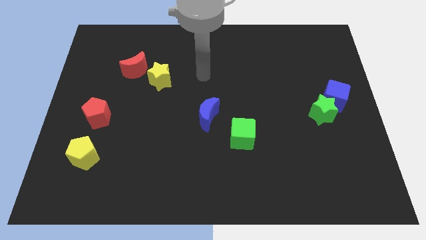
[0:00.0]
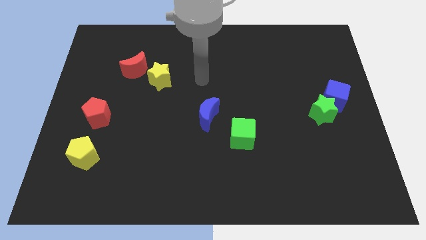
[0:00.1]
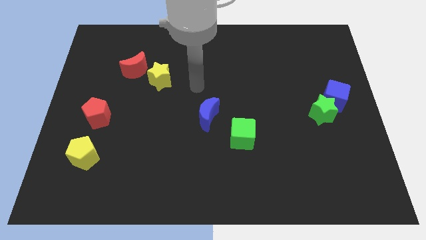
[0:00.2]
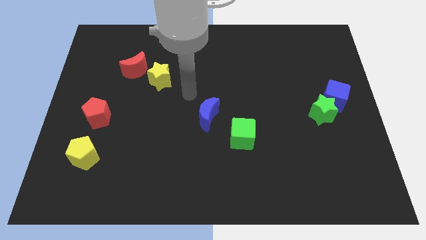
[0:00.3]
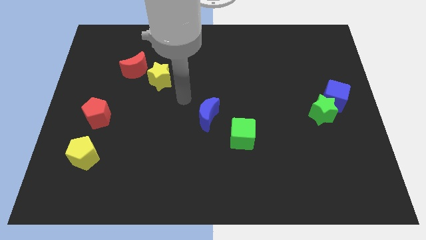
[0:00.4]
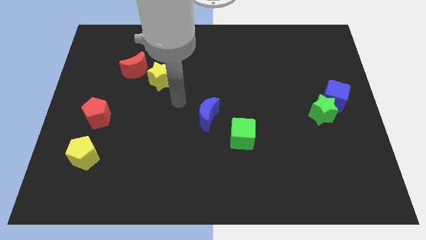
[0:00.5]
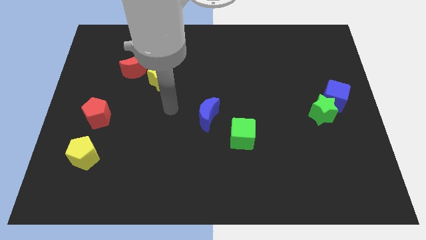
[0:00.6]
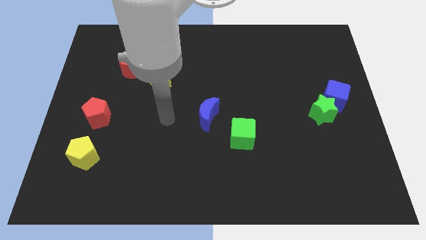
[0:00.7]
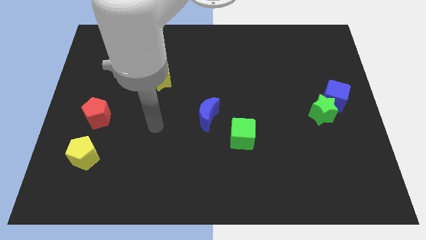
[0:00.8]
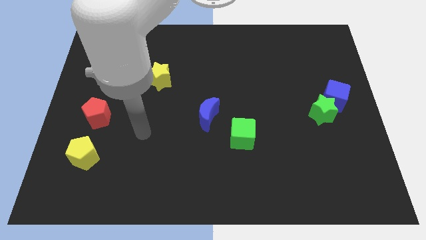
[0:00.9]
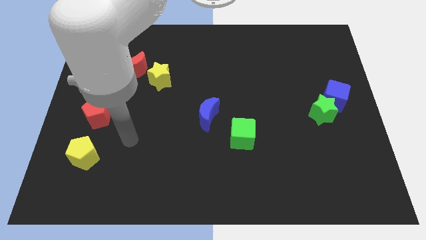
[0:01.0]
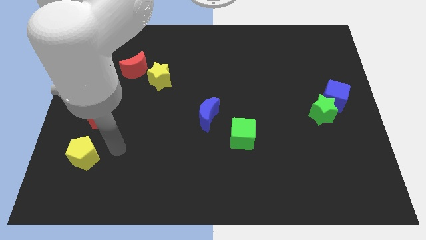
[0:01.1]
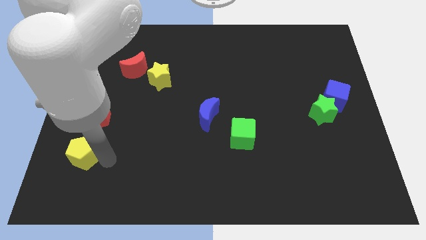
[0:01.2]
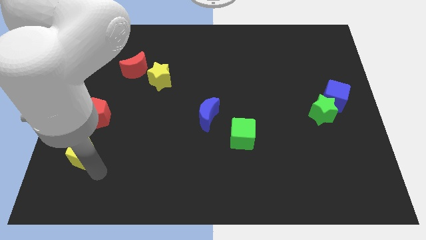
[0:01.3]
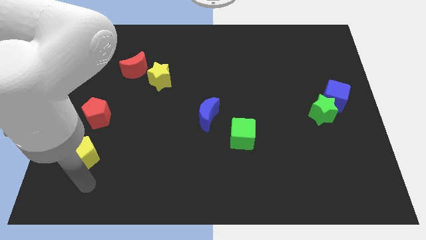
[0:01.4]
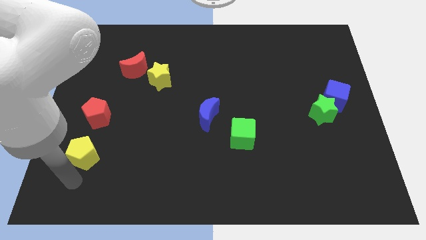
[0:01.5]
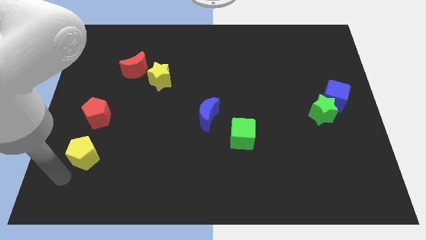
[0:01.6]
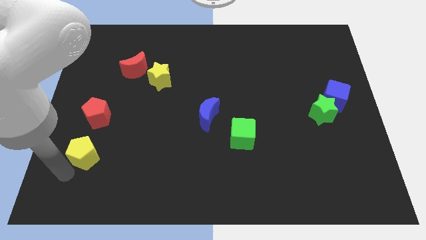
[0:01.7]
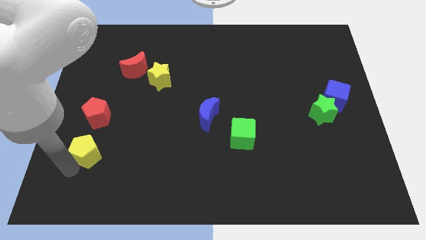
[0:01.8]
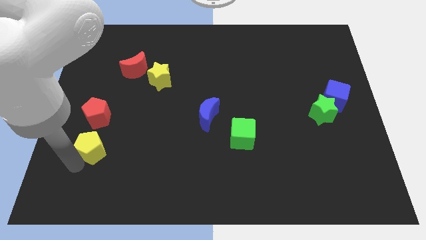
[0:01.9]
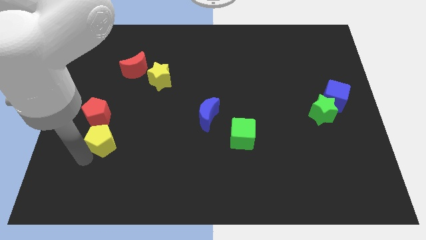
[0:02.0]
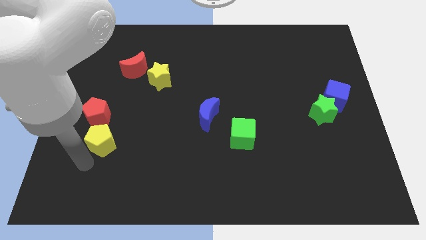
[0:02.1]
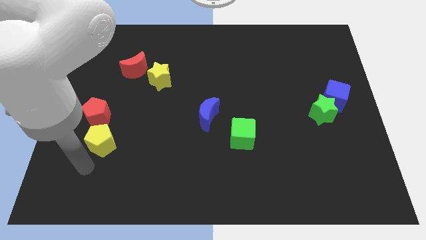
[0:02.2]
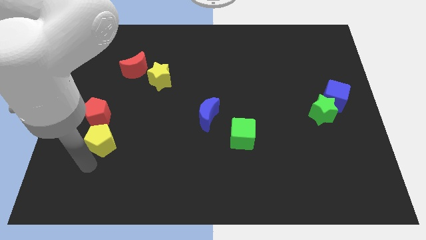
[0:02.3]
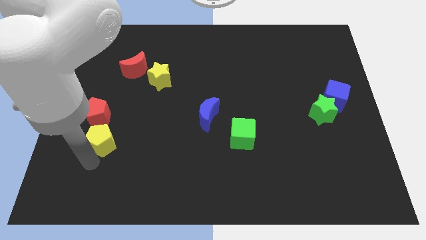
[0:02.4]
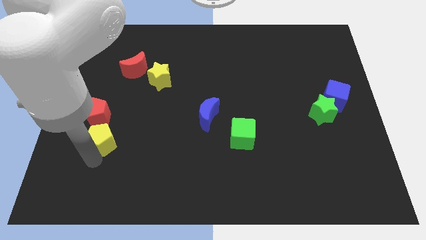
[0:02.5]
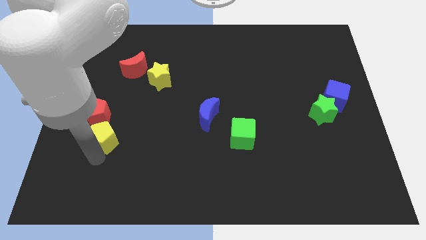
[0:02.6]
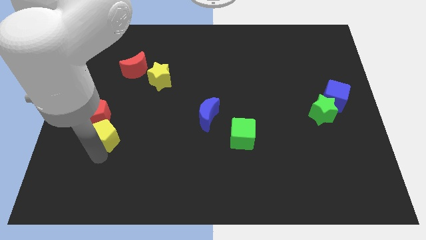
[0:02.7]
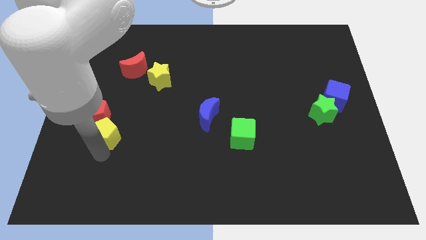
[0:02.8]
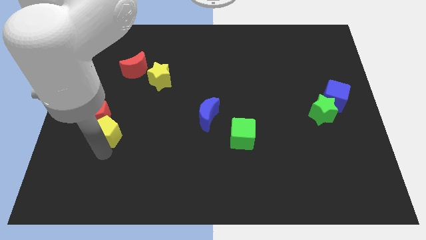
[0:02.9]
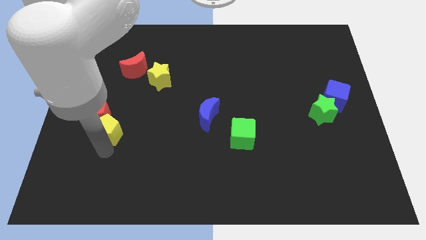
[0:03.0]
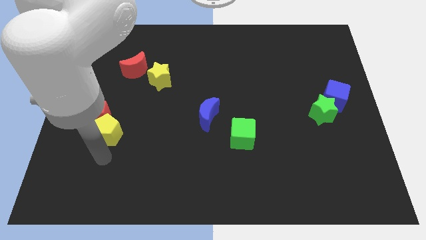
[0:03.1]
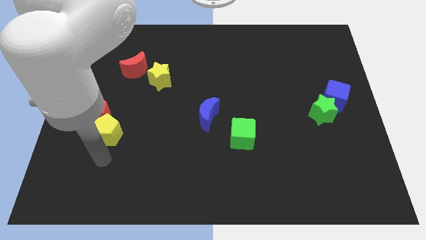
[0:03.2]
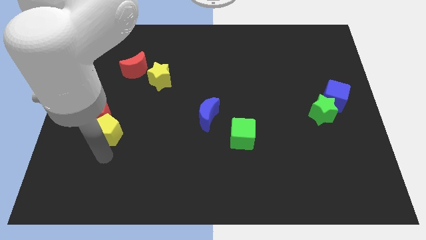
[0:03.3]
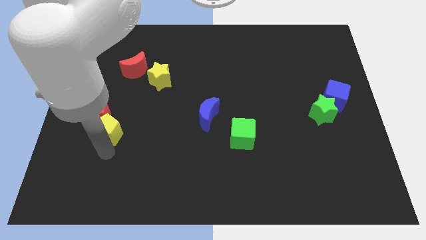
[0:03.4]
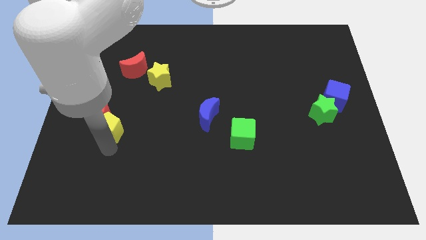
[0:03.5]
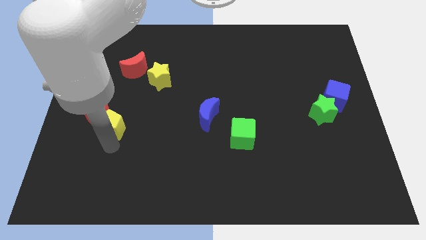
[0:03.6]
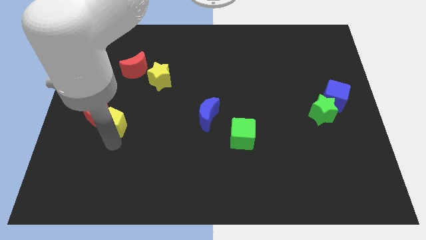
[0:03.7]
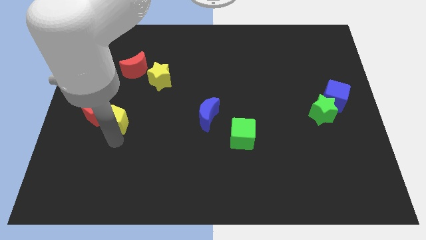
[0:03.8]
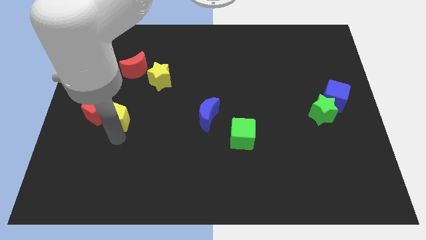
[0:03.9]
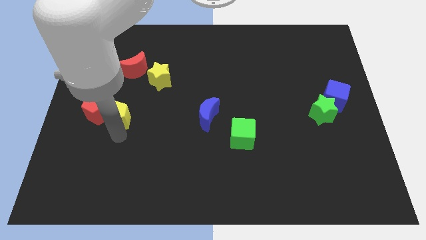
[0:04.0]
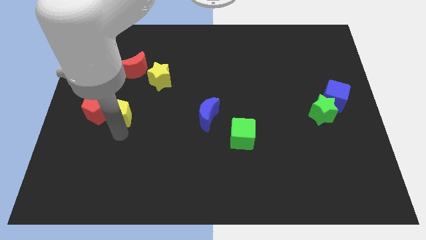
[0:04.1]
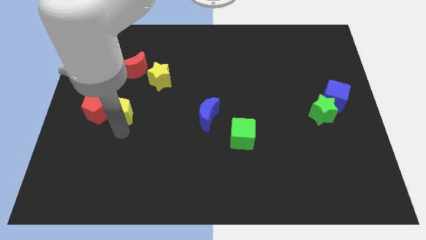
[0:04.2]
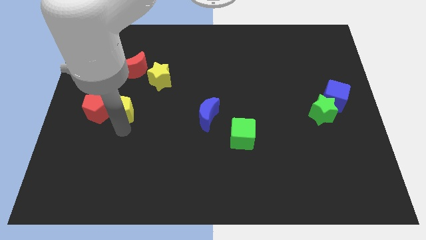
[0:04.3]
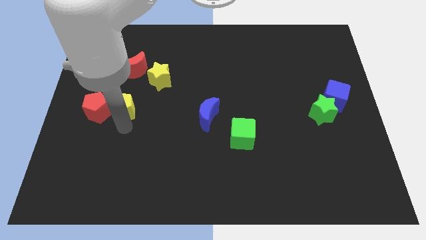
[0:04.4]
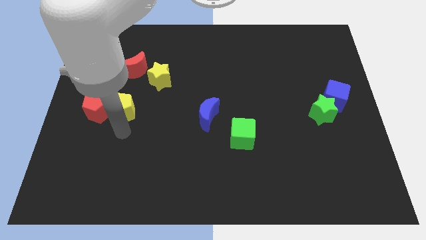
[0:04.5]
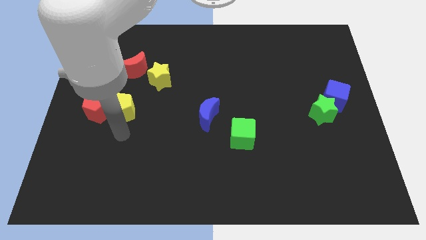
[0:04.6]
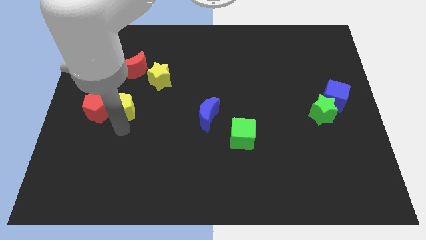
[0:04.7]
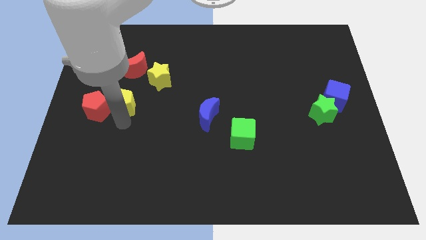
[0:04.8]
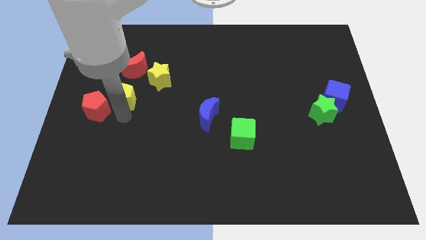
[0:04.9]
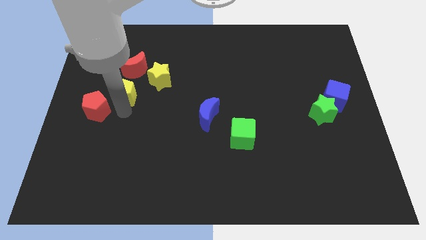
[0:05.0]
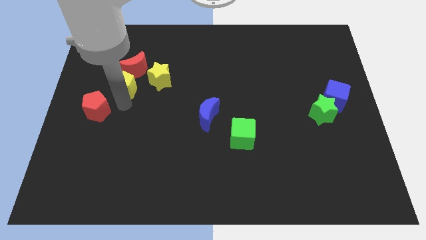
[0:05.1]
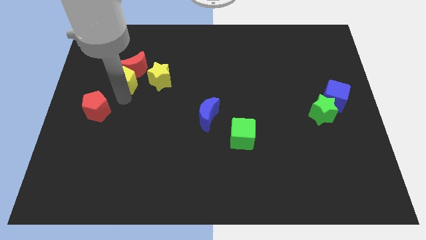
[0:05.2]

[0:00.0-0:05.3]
push the yellow pentagon to the red moon

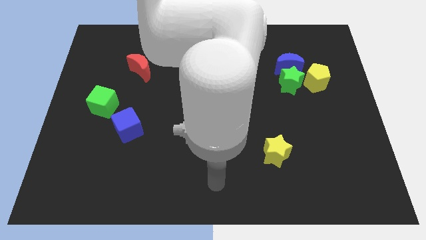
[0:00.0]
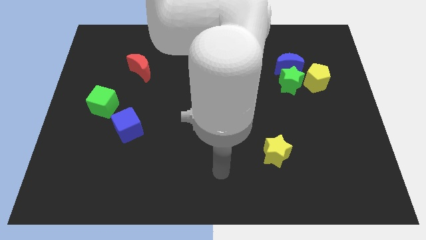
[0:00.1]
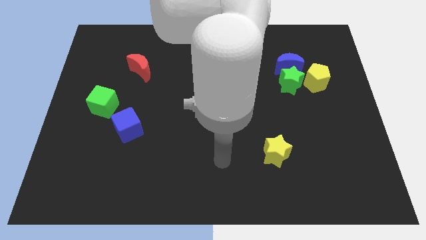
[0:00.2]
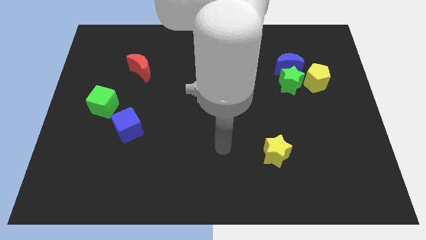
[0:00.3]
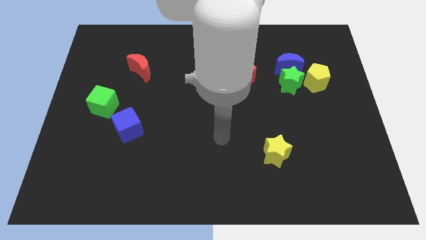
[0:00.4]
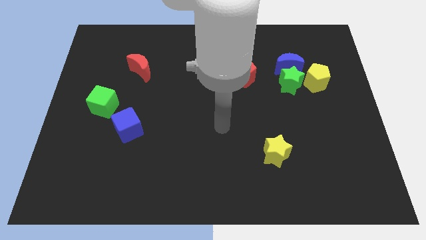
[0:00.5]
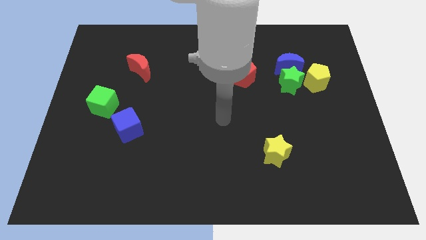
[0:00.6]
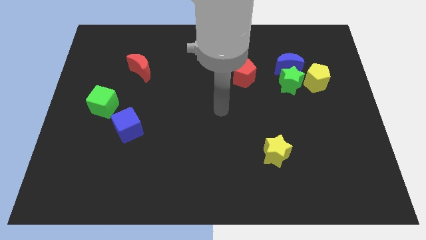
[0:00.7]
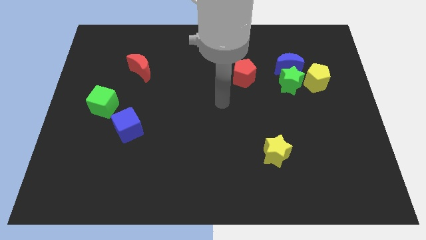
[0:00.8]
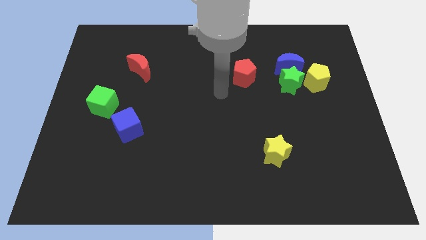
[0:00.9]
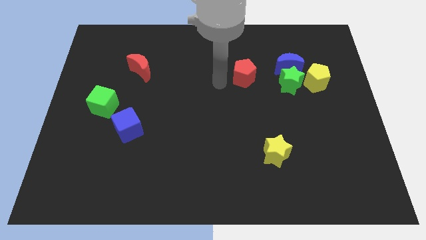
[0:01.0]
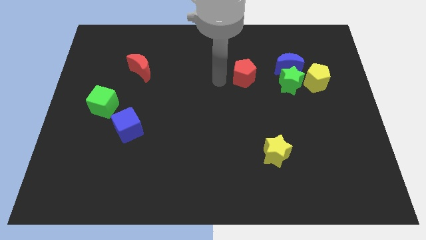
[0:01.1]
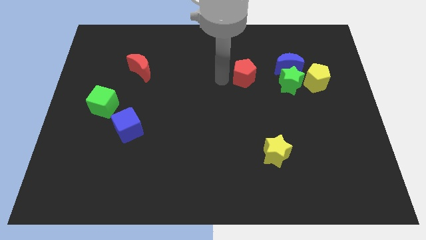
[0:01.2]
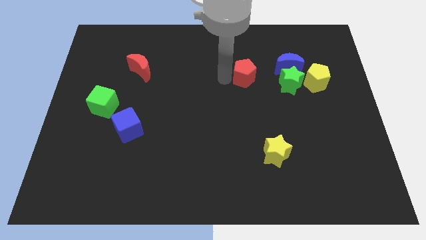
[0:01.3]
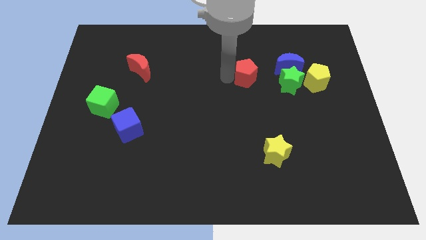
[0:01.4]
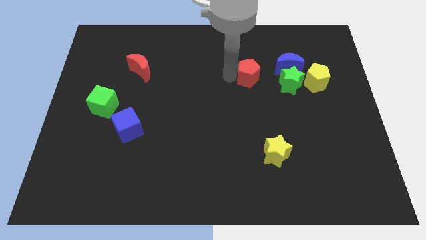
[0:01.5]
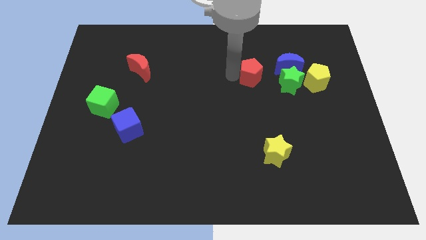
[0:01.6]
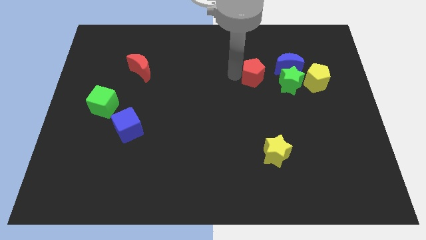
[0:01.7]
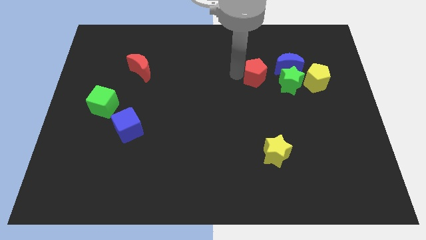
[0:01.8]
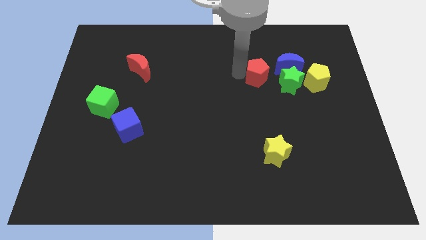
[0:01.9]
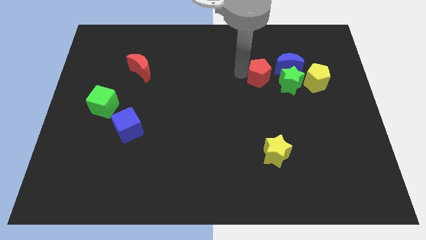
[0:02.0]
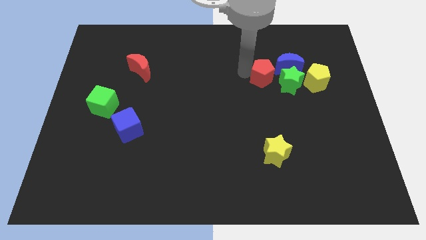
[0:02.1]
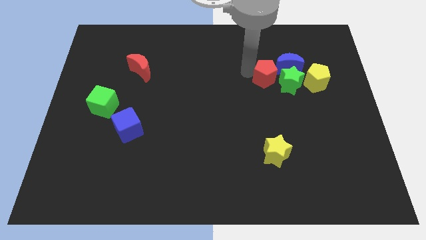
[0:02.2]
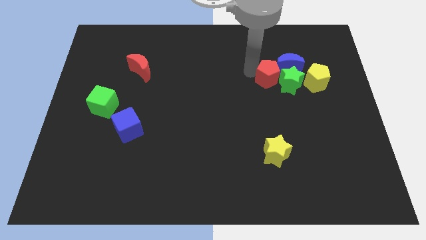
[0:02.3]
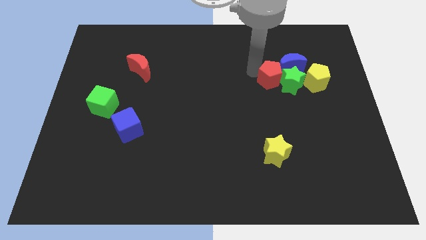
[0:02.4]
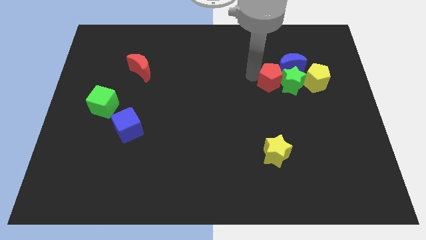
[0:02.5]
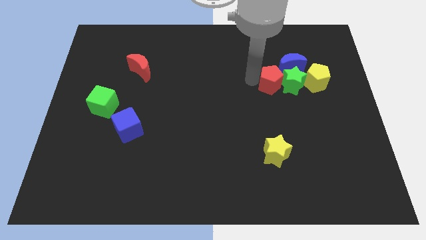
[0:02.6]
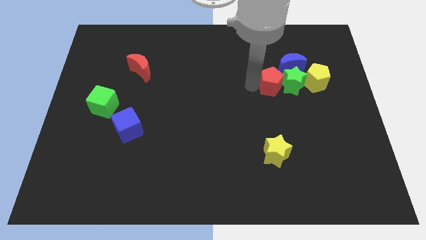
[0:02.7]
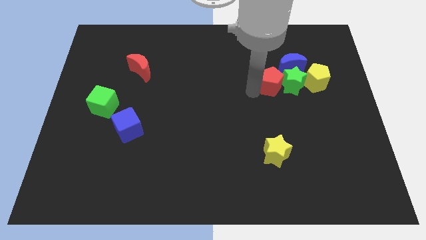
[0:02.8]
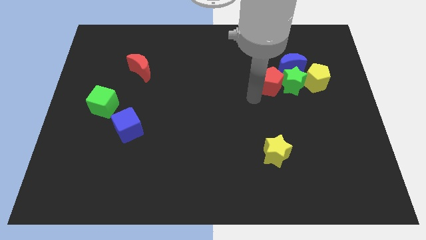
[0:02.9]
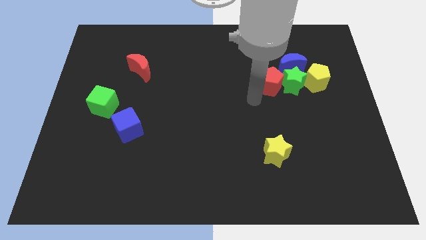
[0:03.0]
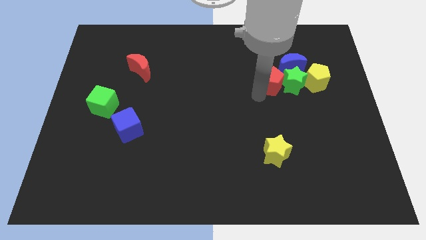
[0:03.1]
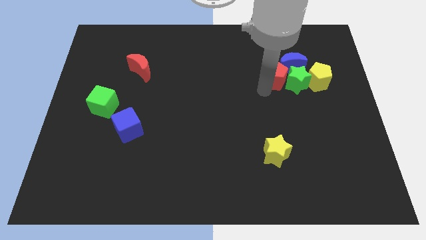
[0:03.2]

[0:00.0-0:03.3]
push the red pentagon next to the blue moon
